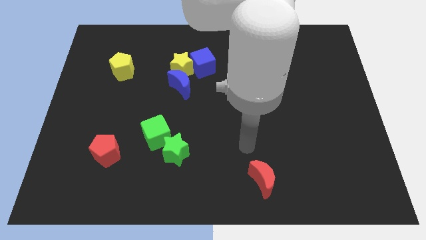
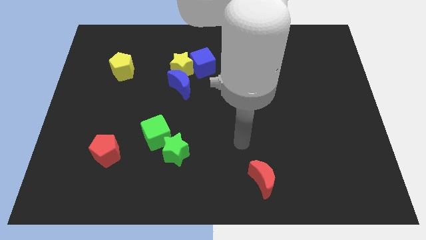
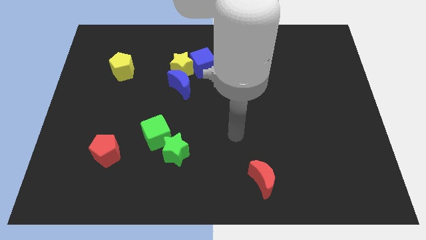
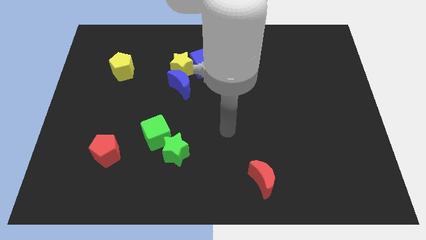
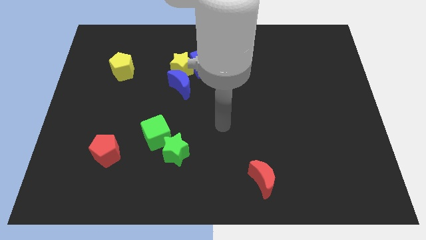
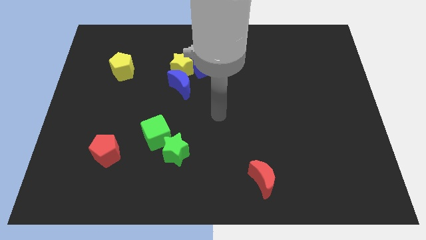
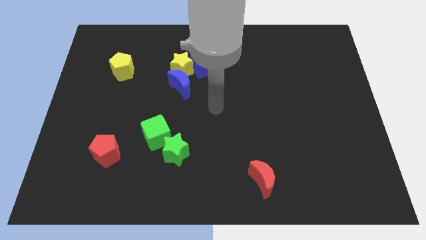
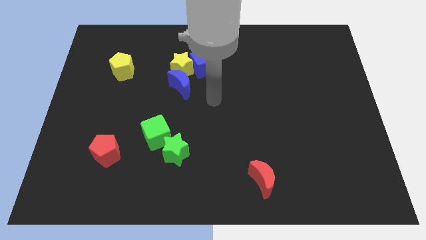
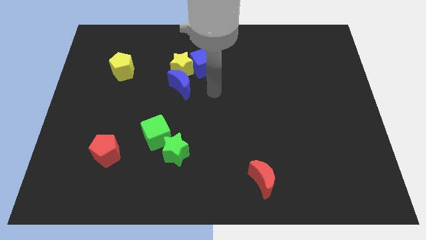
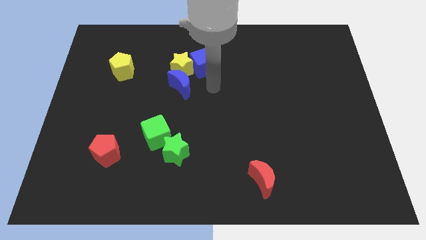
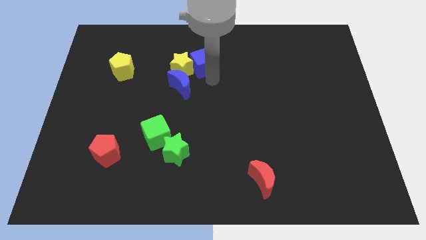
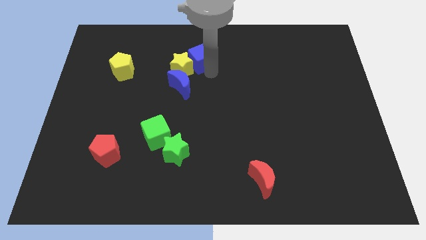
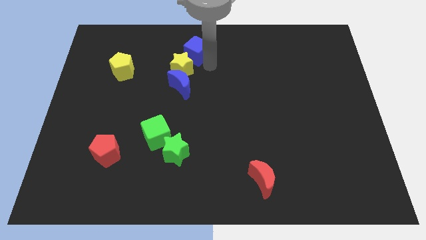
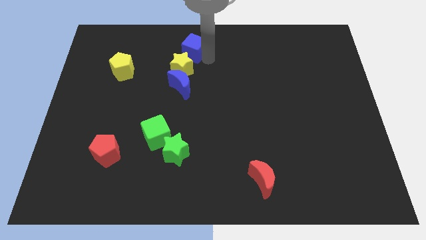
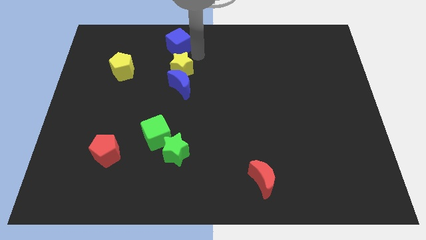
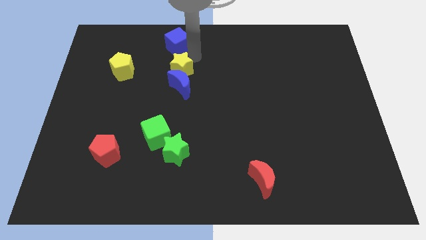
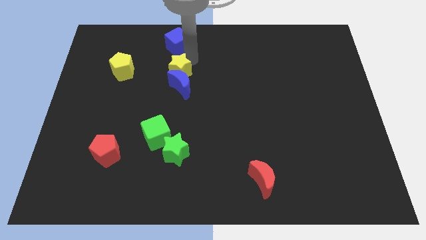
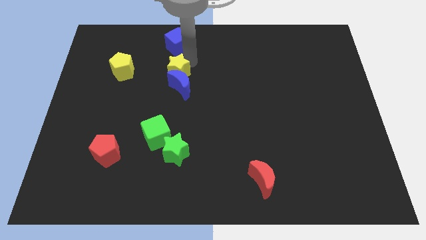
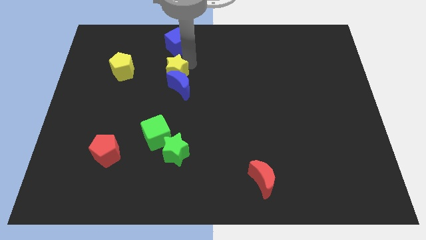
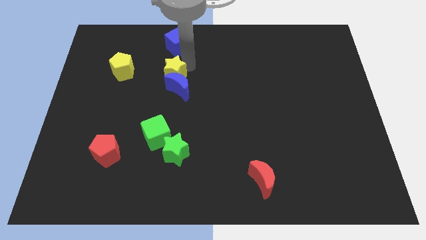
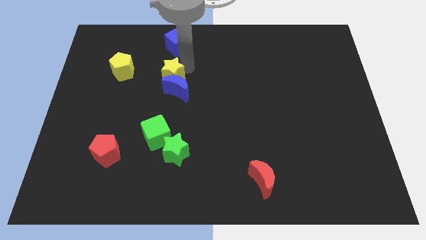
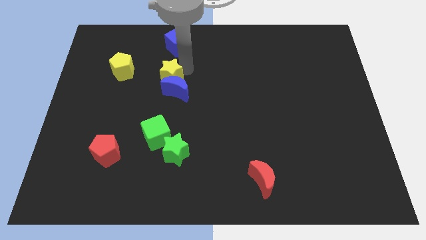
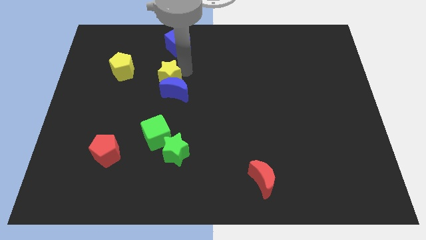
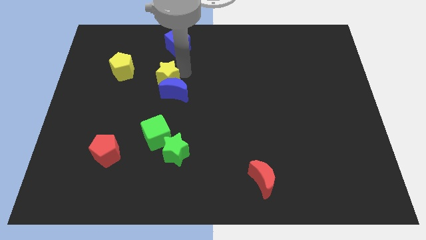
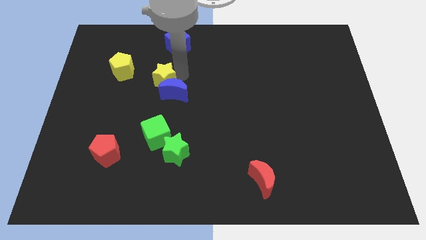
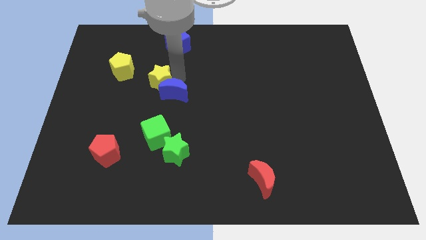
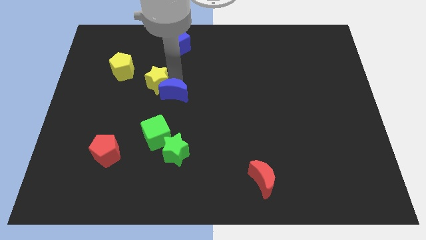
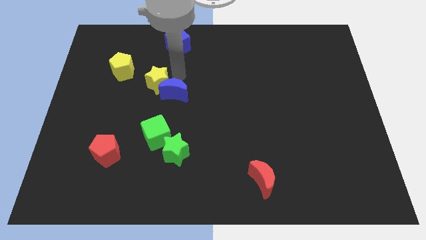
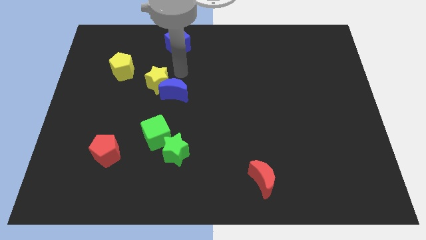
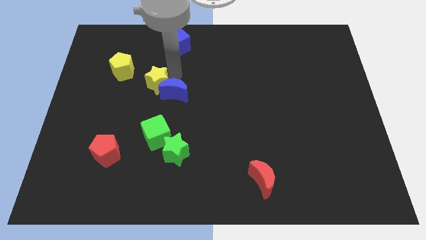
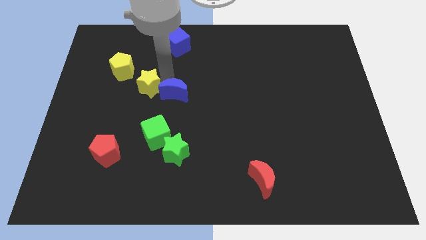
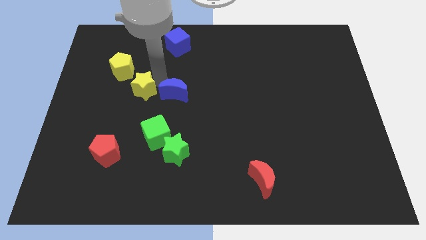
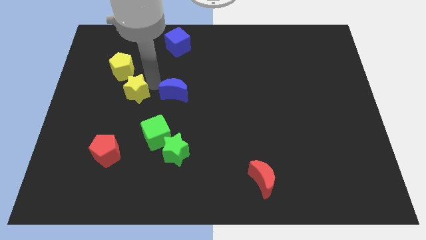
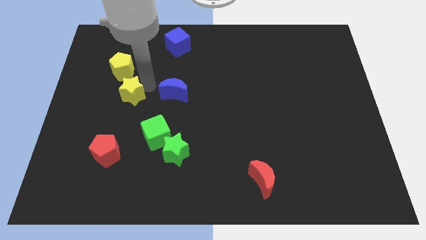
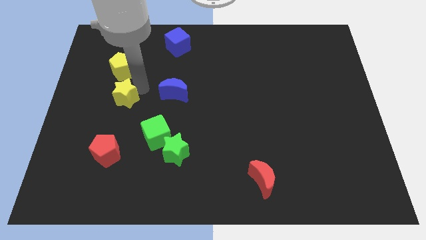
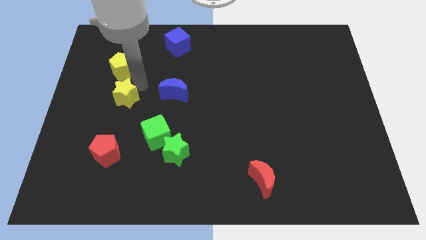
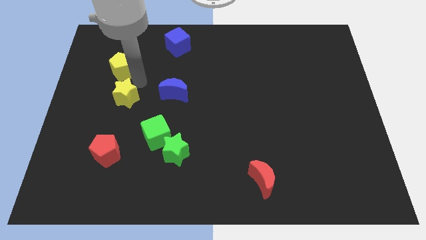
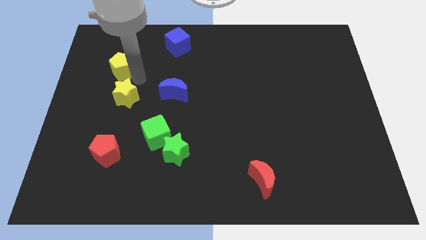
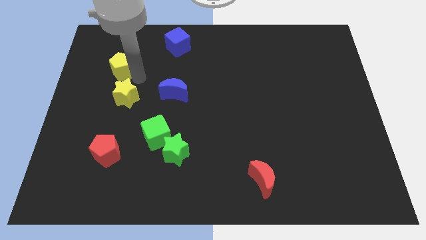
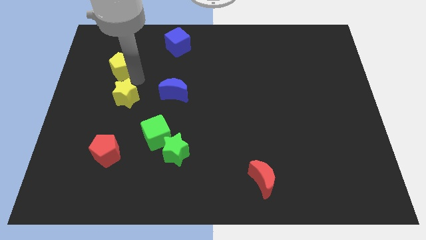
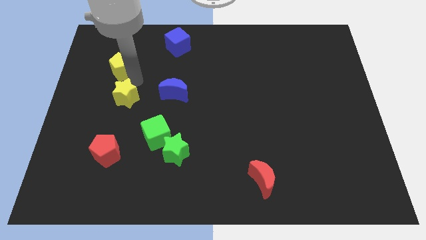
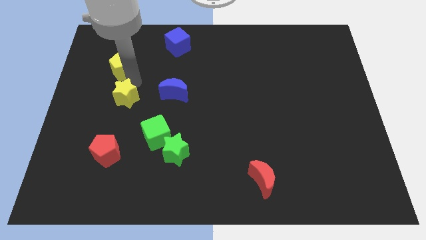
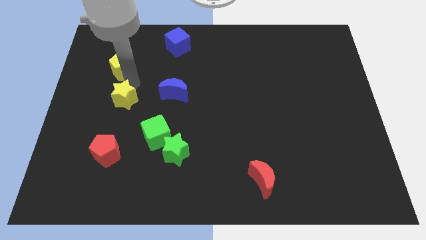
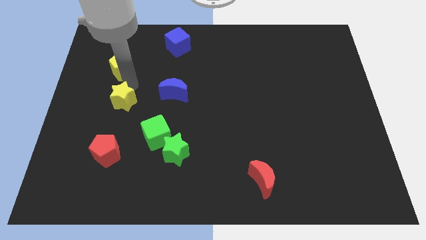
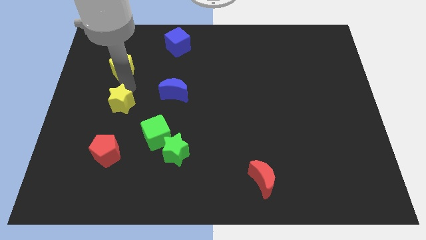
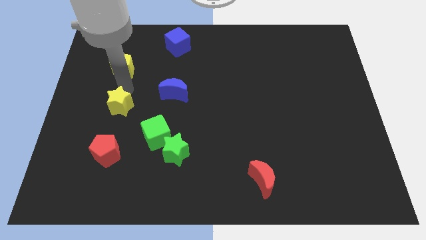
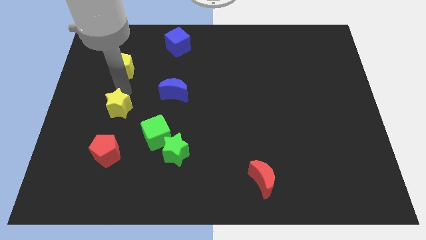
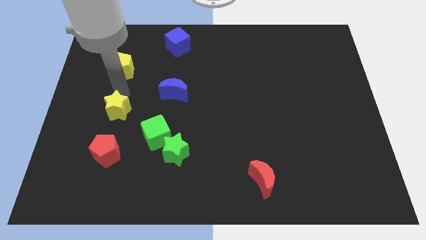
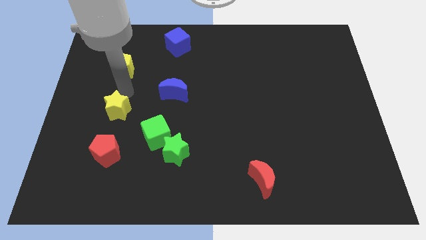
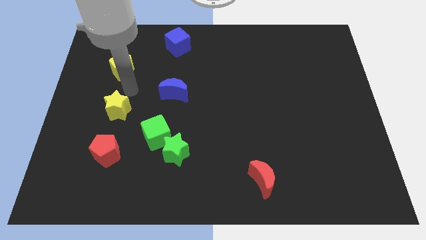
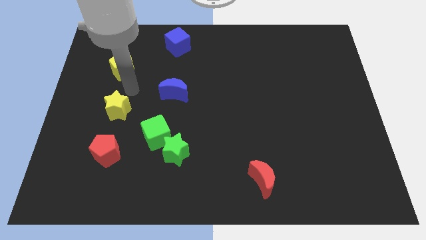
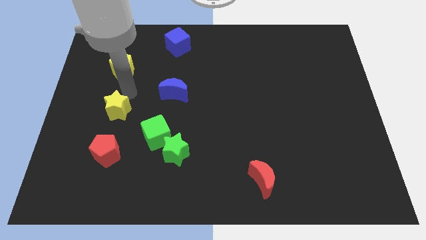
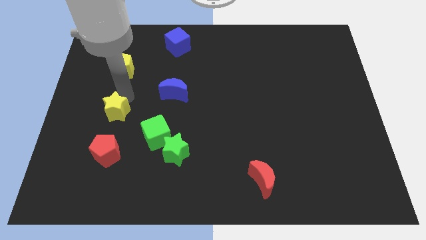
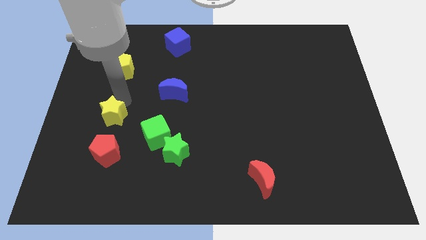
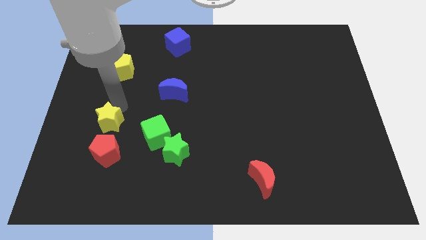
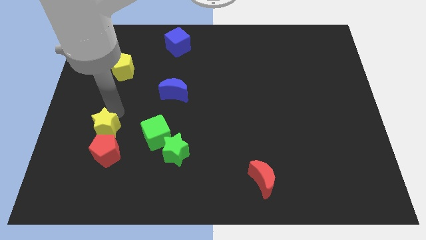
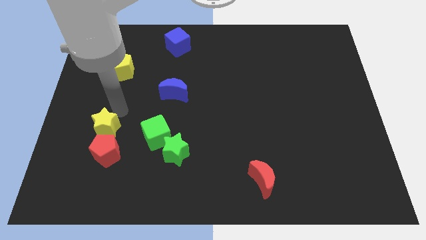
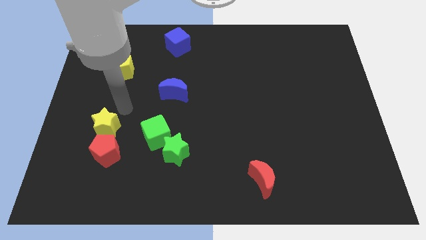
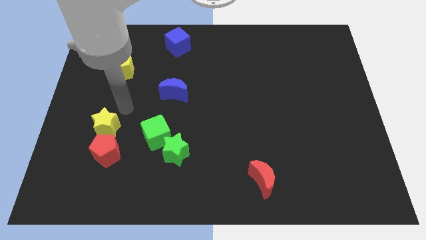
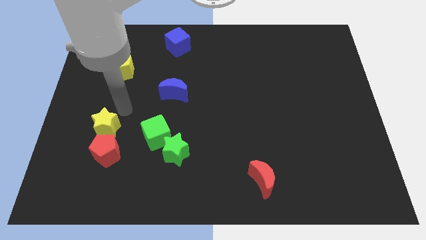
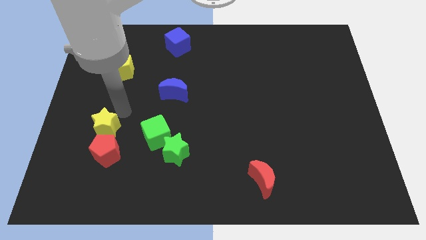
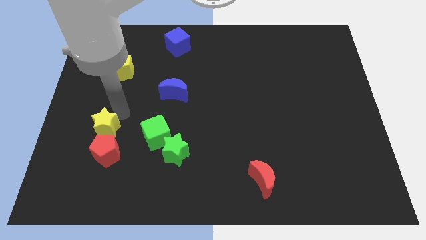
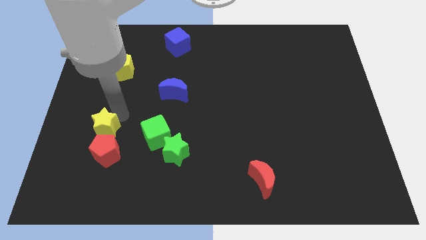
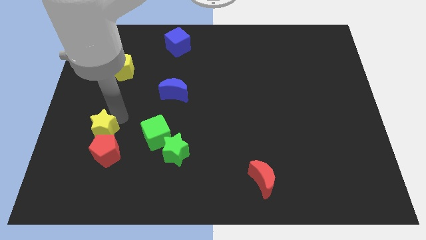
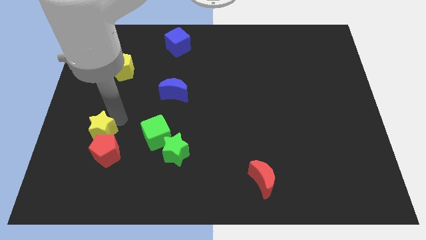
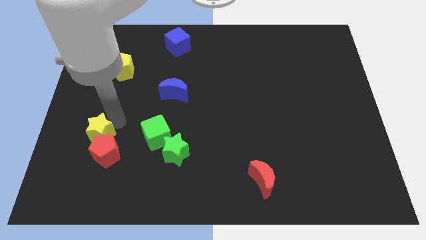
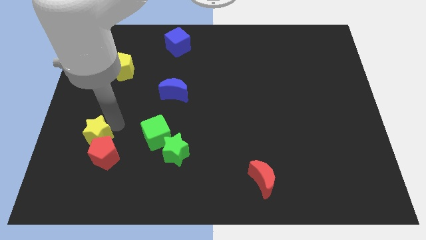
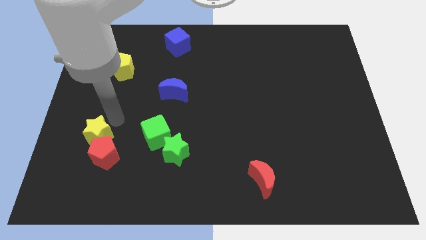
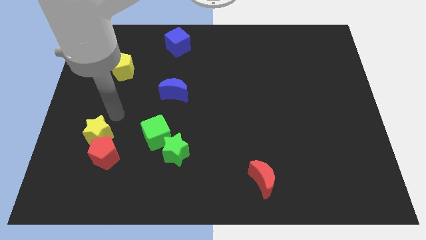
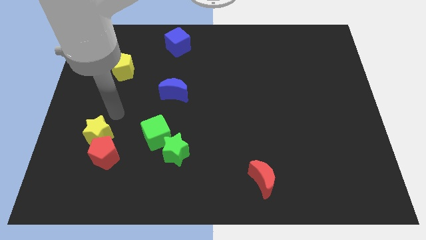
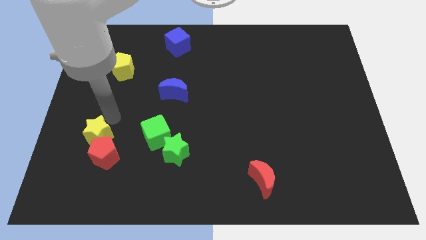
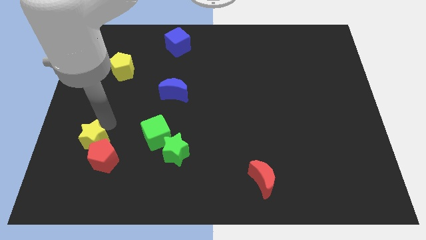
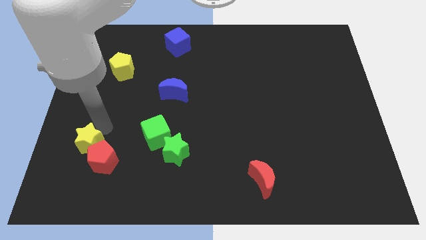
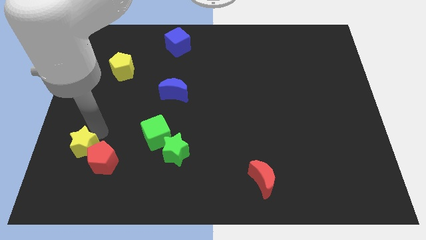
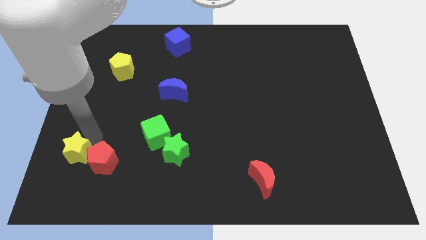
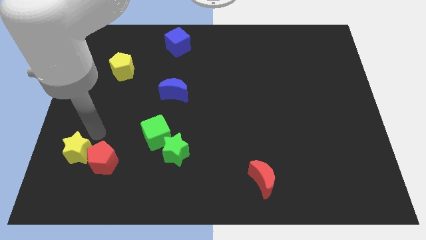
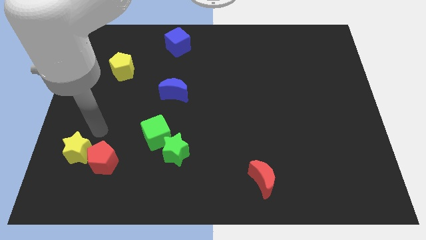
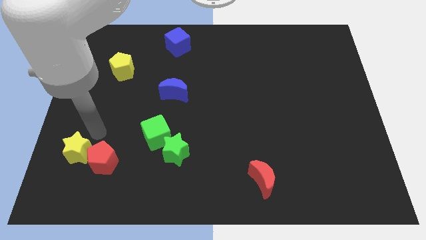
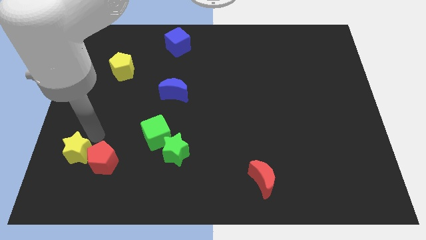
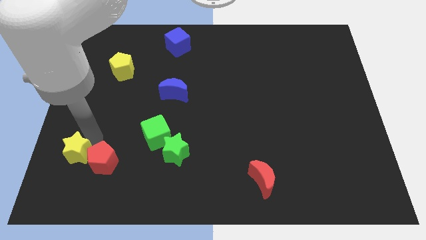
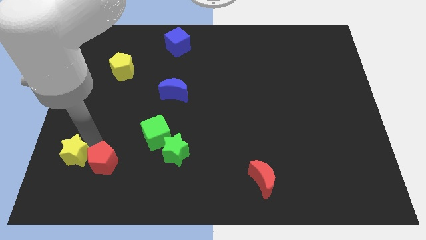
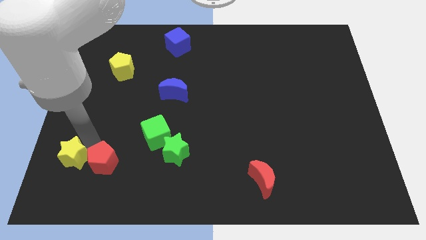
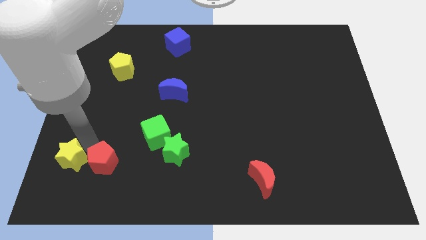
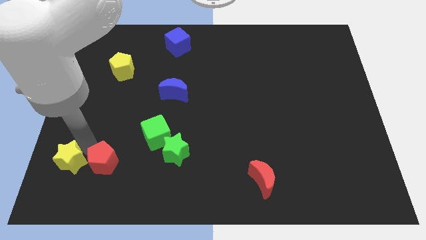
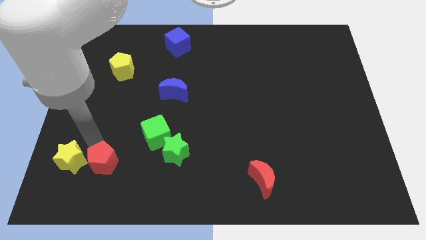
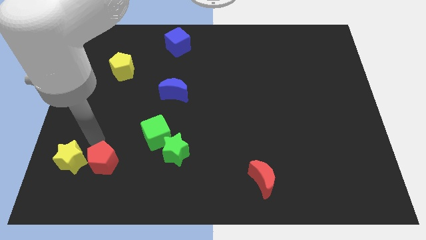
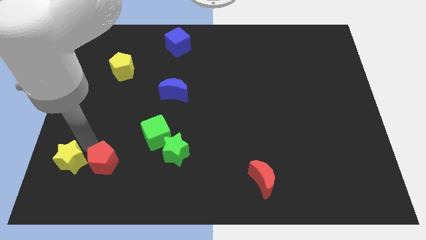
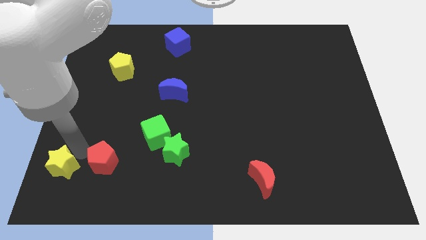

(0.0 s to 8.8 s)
slide the yellow star to the bottom left of the board
